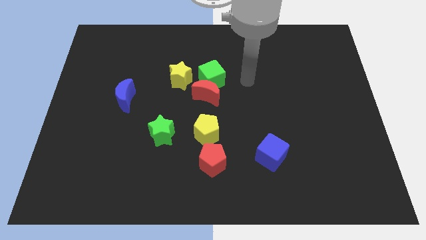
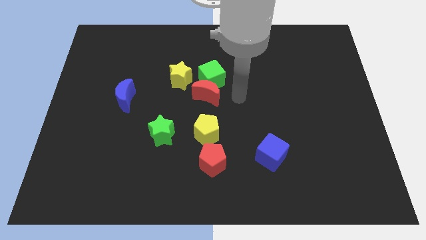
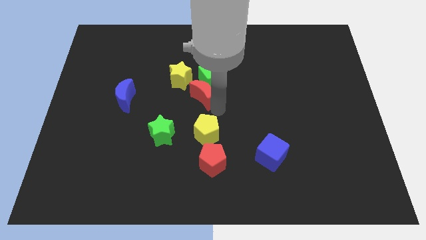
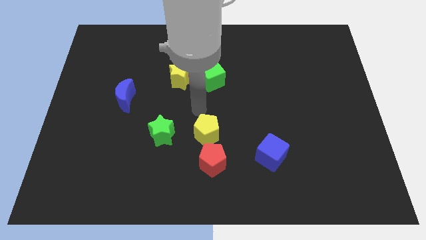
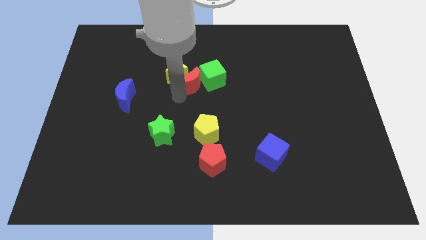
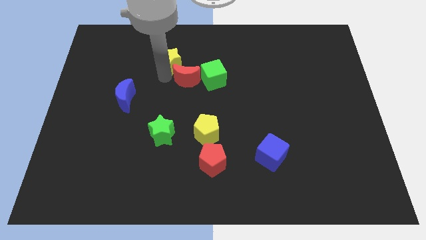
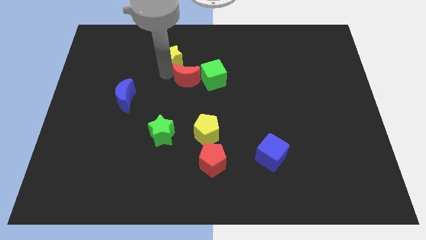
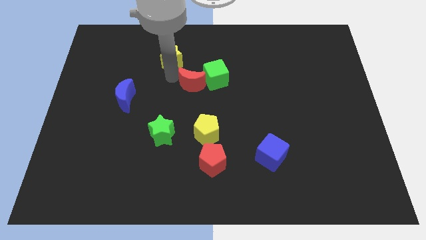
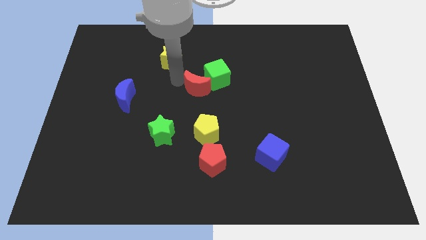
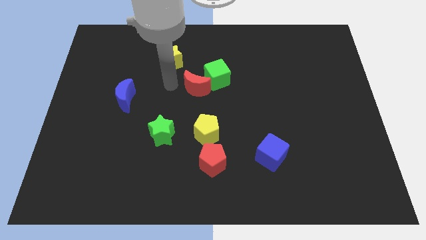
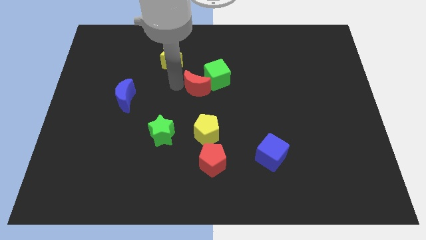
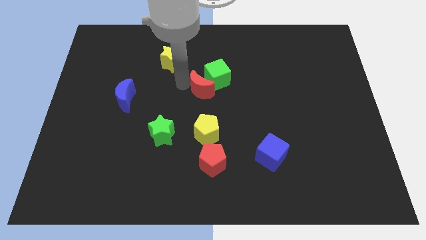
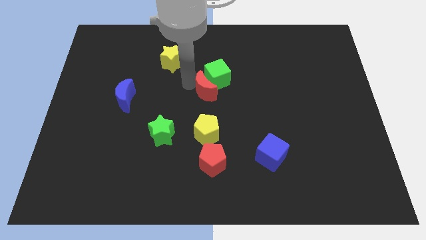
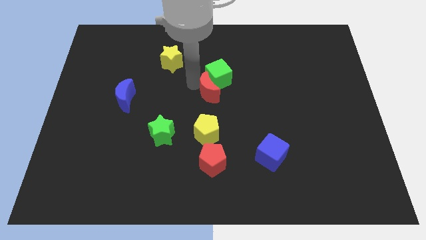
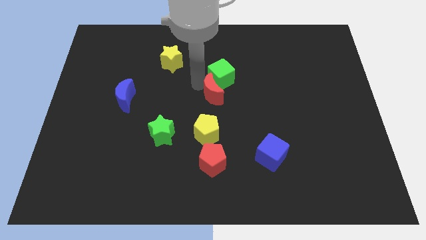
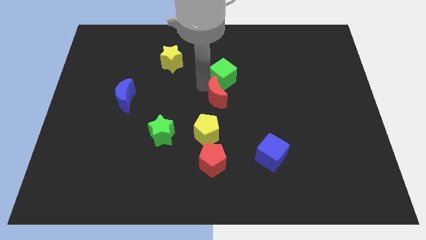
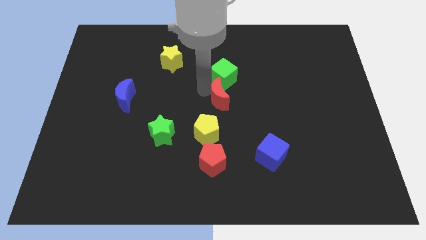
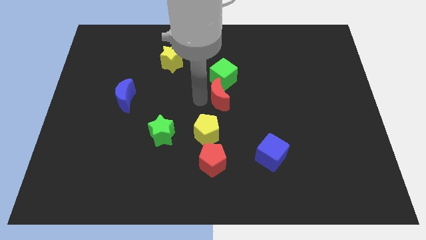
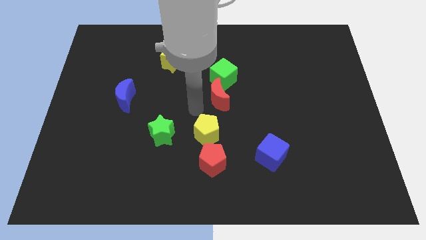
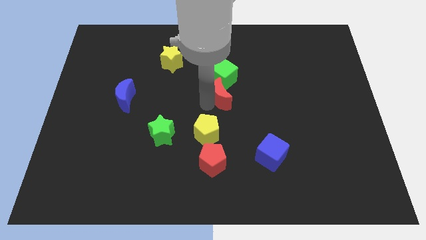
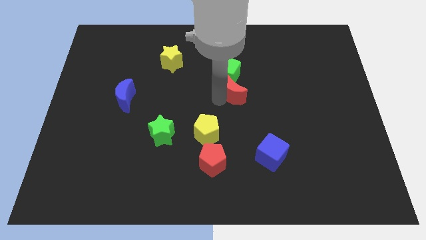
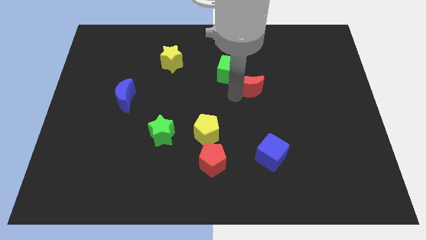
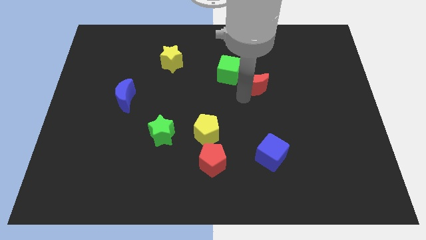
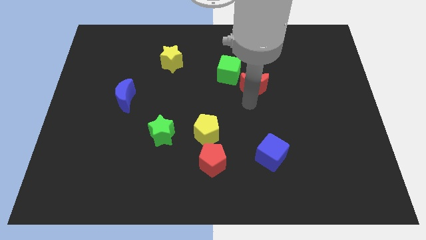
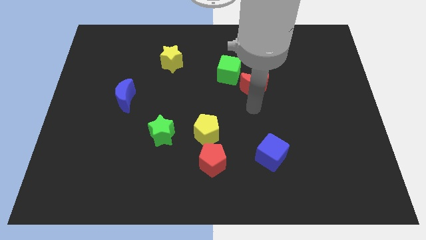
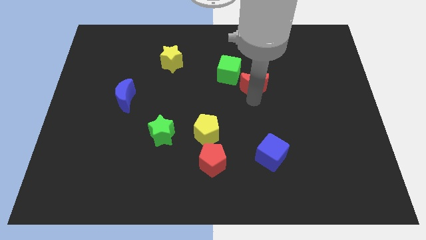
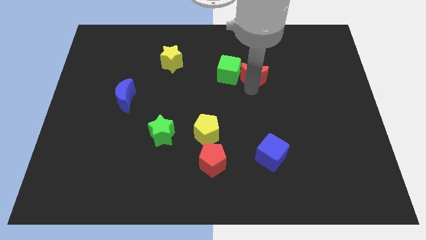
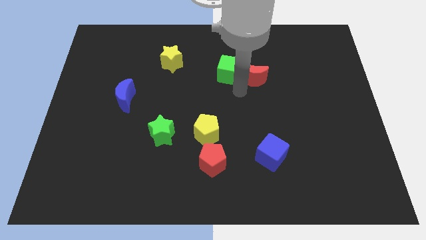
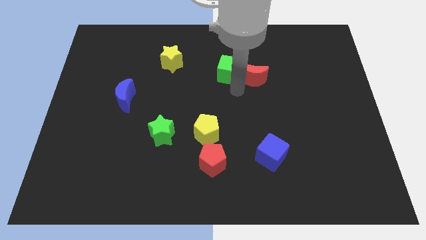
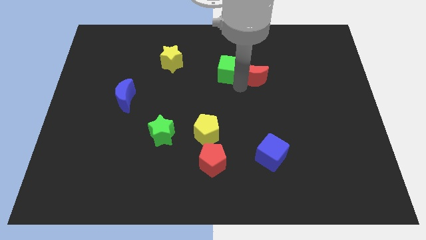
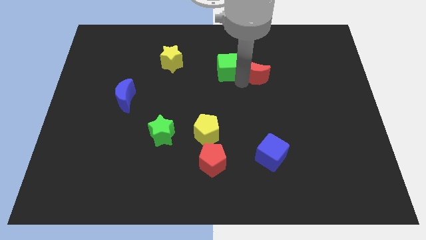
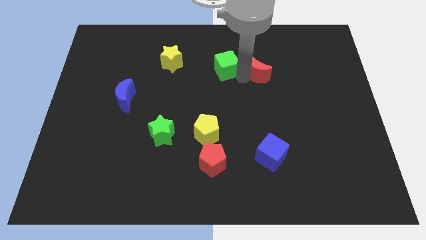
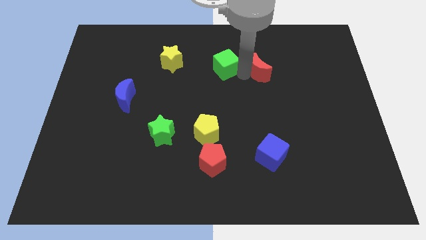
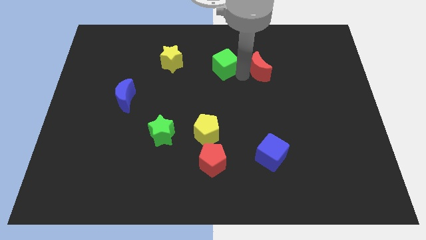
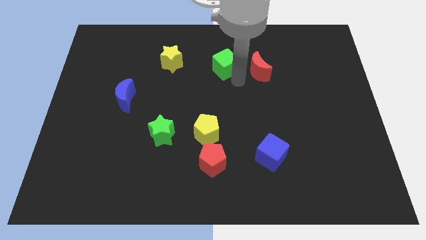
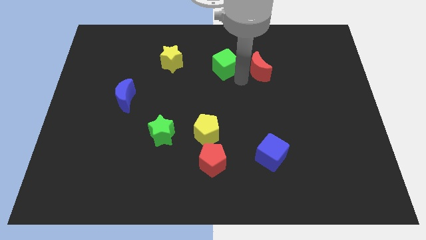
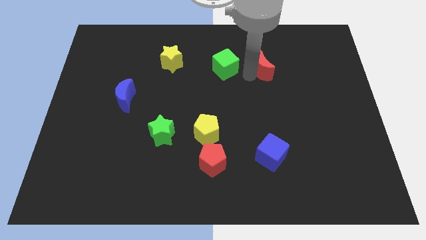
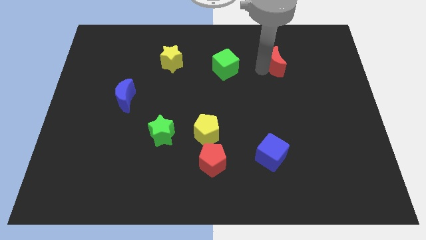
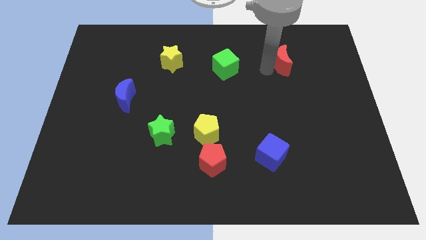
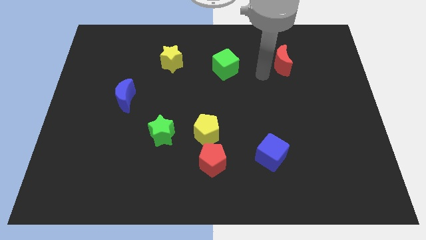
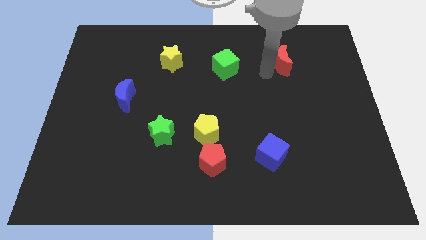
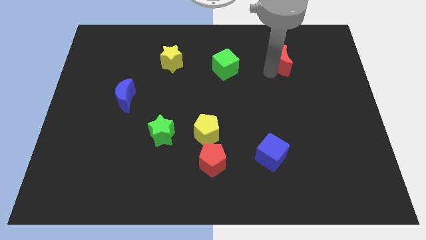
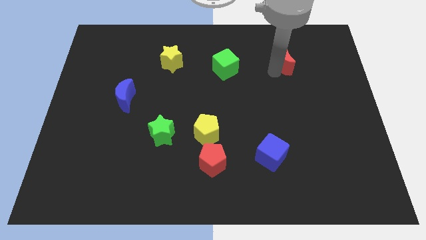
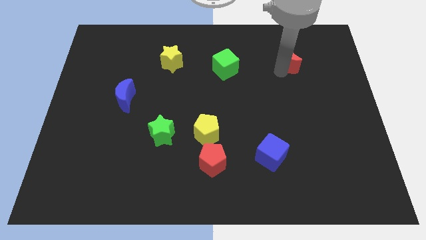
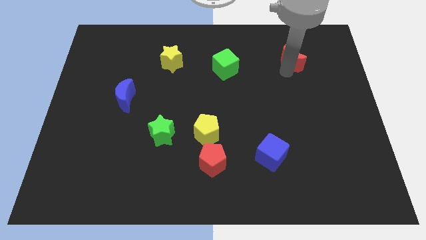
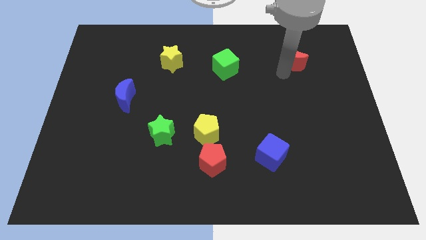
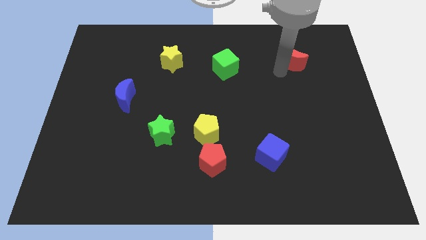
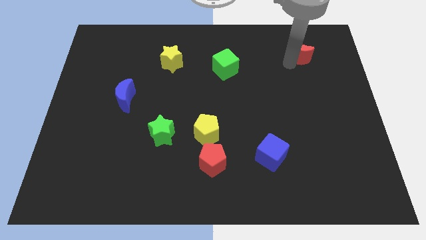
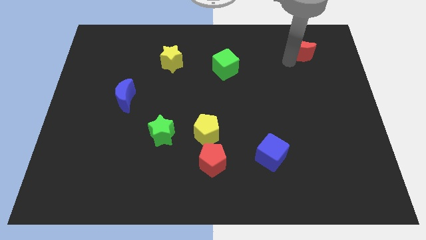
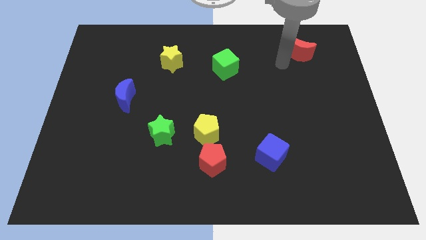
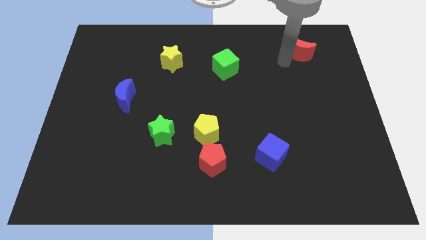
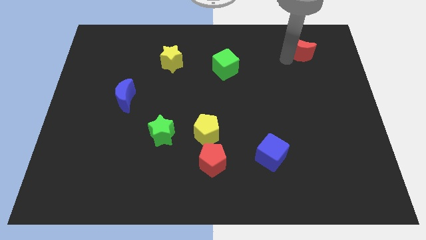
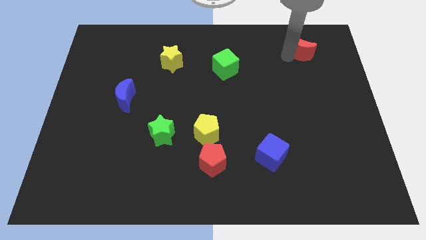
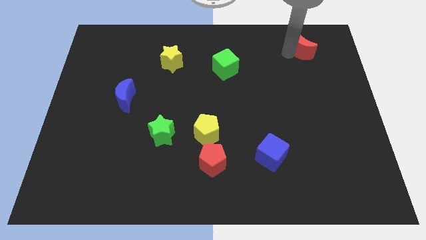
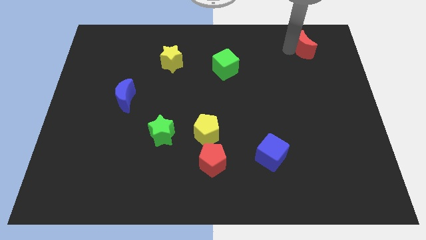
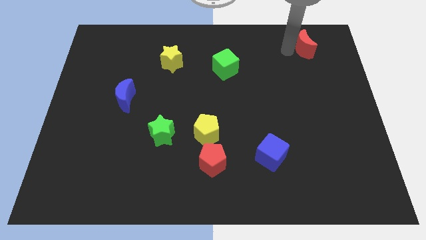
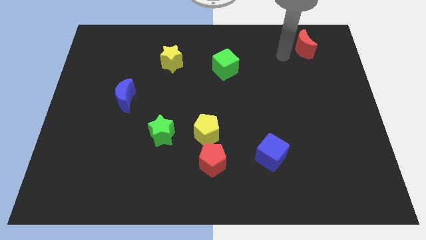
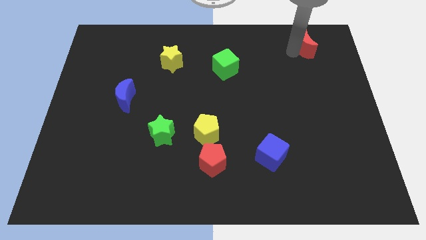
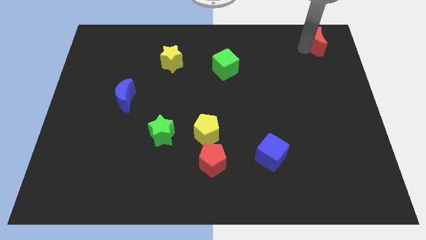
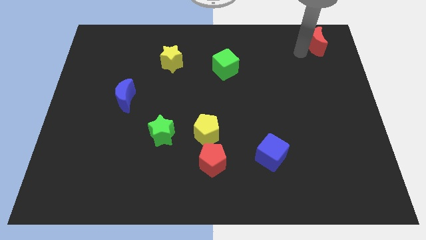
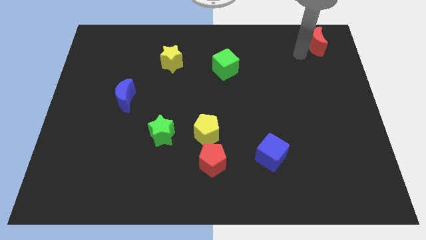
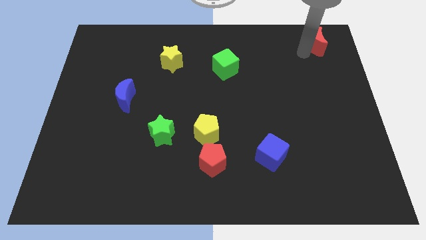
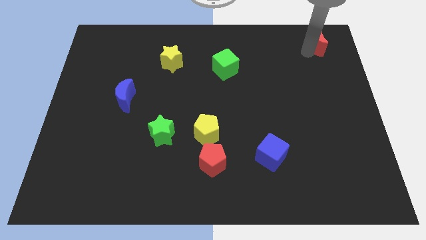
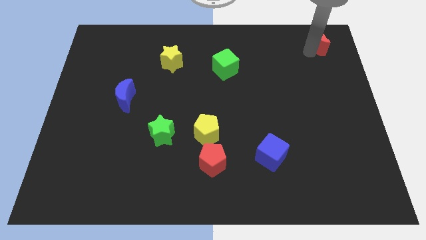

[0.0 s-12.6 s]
slide the red moon to the top right
